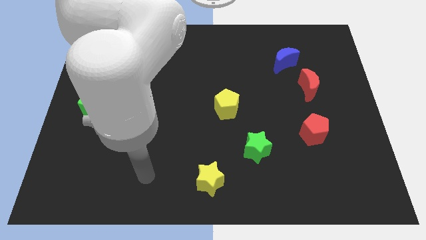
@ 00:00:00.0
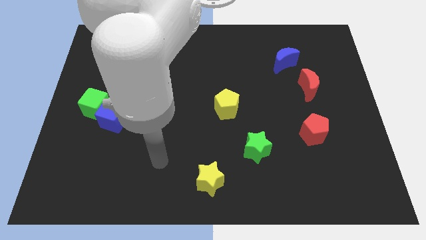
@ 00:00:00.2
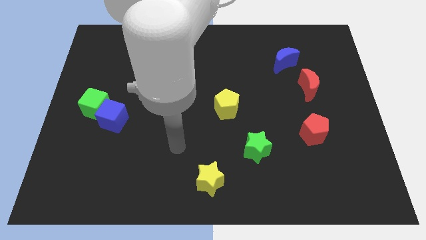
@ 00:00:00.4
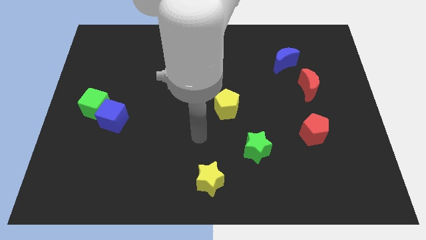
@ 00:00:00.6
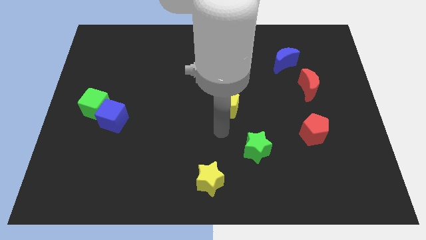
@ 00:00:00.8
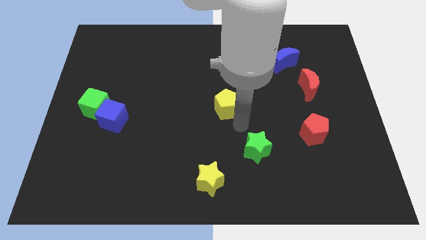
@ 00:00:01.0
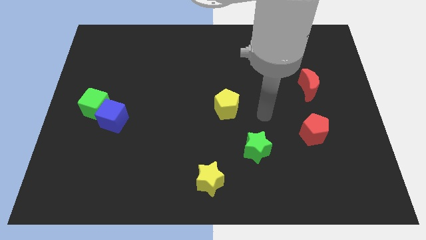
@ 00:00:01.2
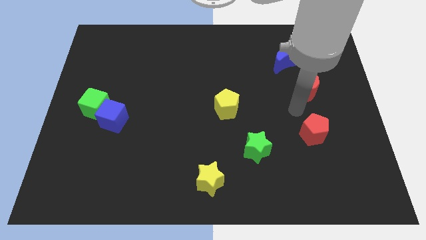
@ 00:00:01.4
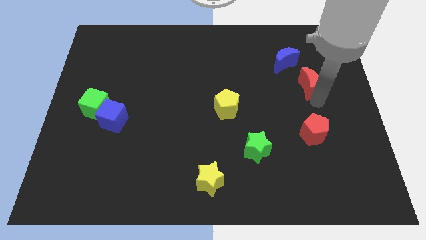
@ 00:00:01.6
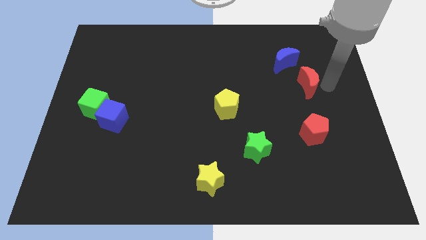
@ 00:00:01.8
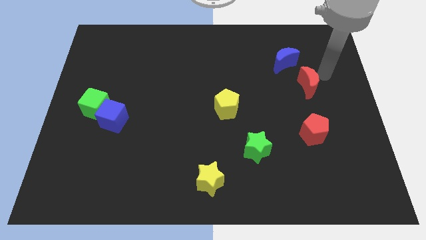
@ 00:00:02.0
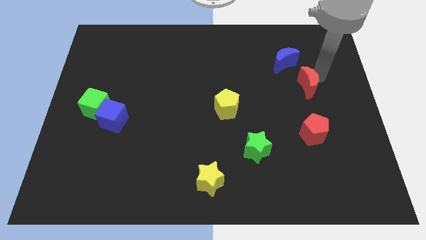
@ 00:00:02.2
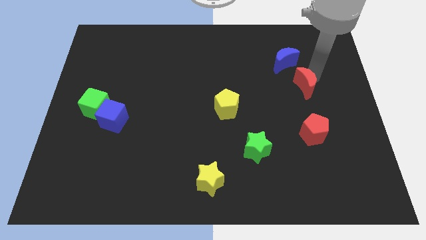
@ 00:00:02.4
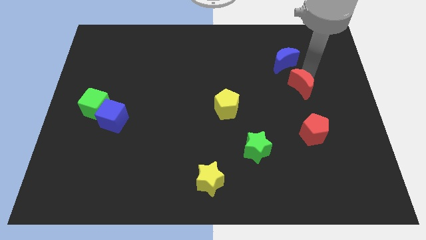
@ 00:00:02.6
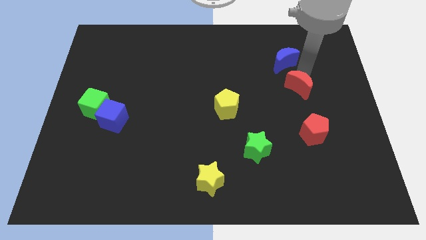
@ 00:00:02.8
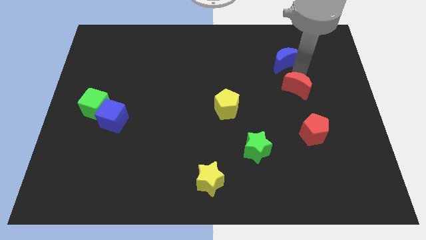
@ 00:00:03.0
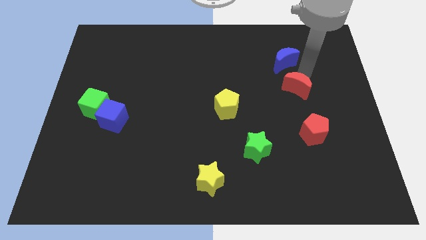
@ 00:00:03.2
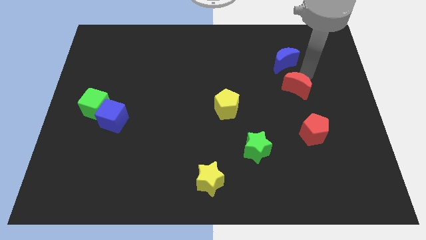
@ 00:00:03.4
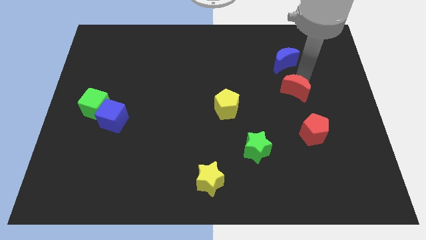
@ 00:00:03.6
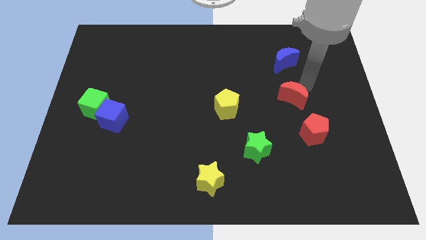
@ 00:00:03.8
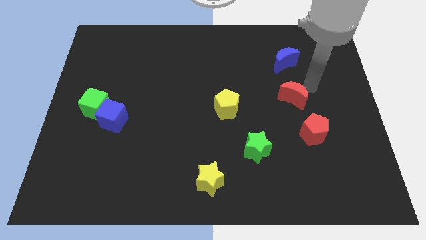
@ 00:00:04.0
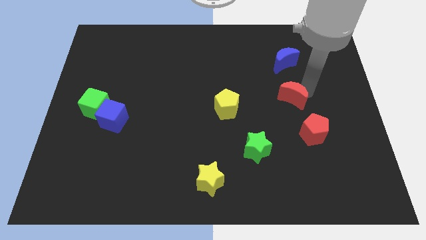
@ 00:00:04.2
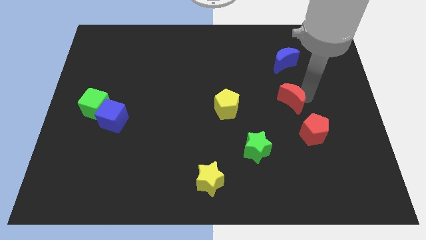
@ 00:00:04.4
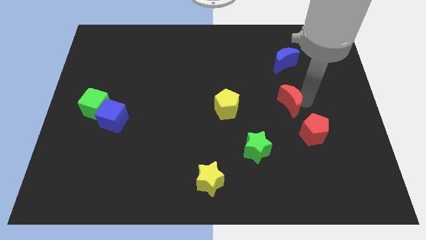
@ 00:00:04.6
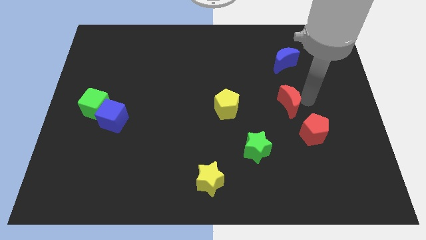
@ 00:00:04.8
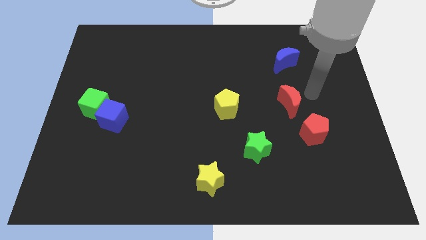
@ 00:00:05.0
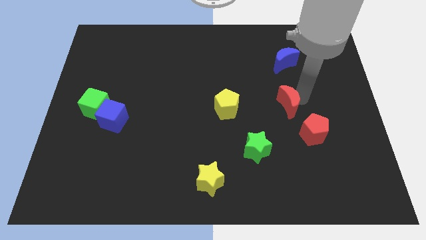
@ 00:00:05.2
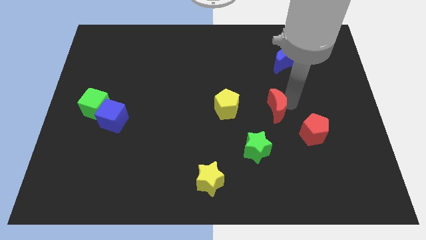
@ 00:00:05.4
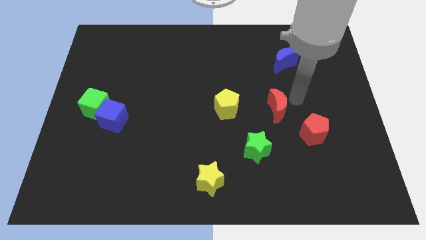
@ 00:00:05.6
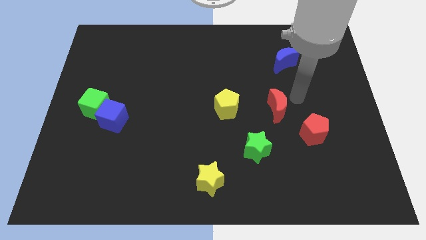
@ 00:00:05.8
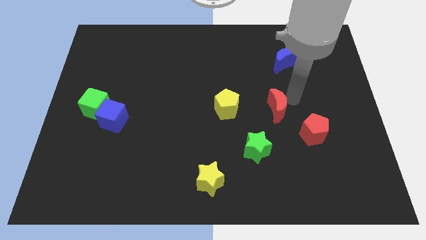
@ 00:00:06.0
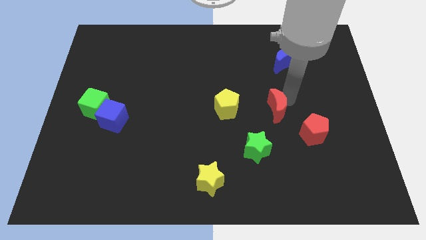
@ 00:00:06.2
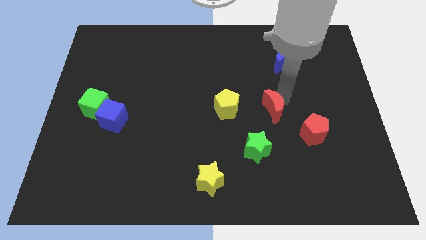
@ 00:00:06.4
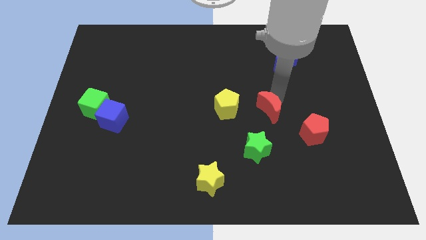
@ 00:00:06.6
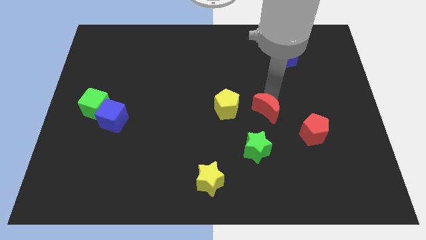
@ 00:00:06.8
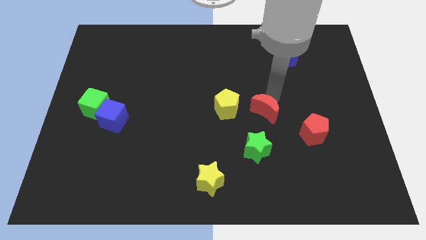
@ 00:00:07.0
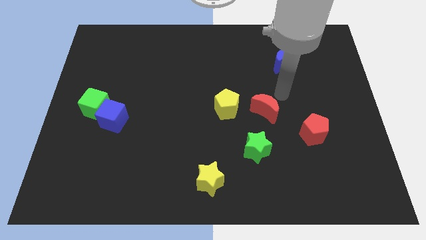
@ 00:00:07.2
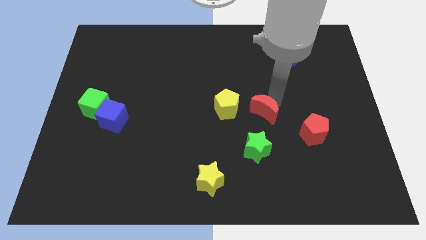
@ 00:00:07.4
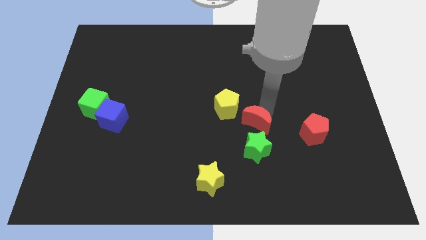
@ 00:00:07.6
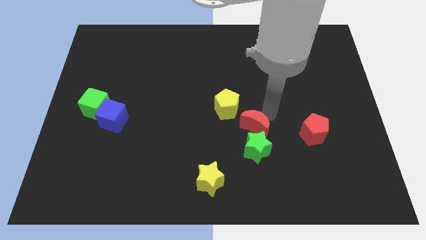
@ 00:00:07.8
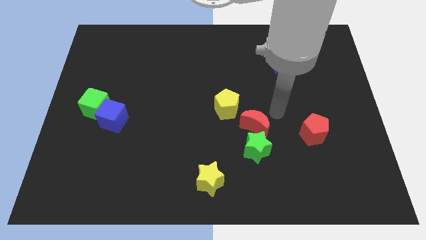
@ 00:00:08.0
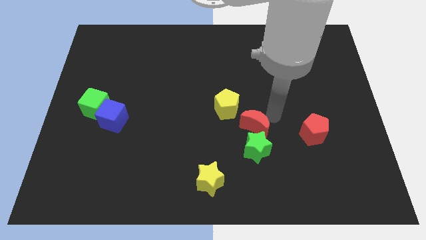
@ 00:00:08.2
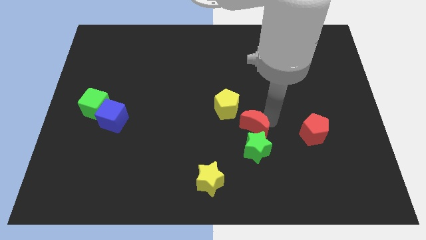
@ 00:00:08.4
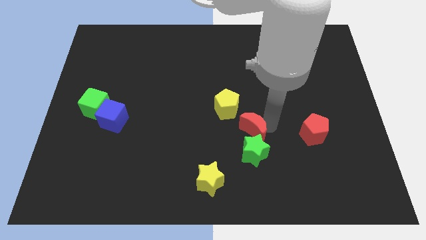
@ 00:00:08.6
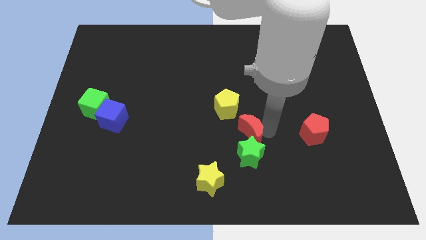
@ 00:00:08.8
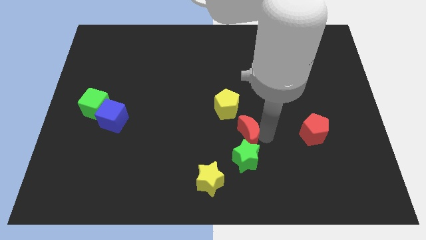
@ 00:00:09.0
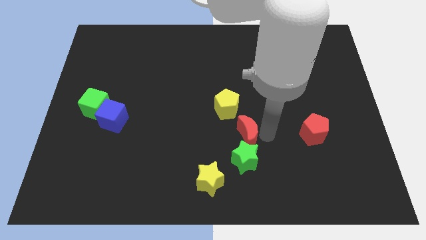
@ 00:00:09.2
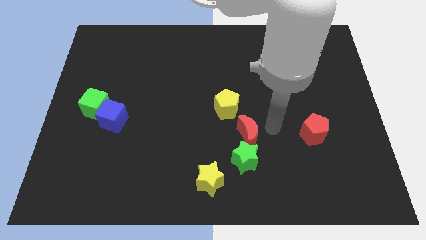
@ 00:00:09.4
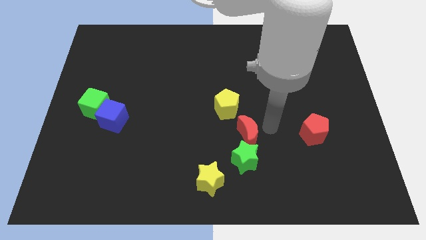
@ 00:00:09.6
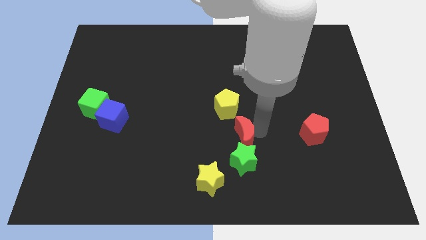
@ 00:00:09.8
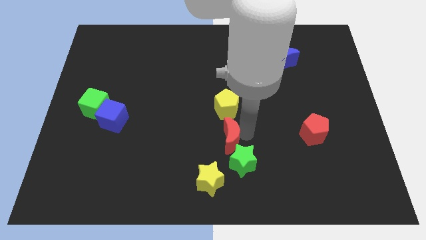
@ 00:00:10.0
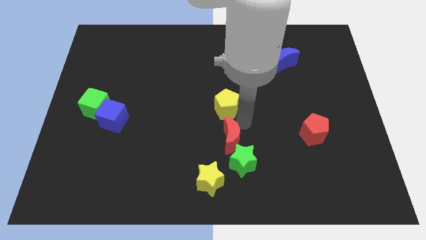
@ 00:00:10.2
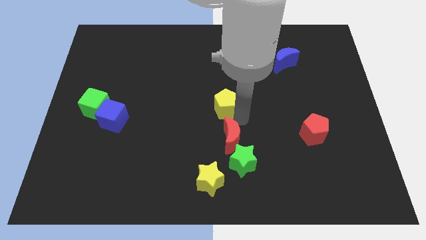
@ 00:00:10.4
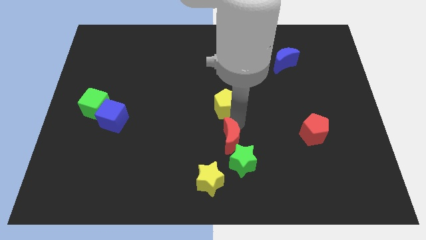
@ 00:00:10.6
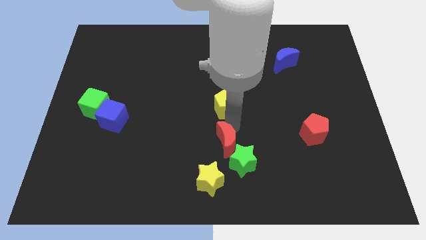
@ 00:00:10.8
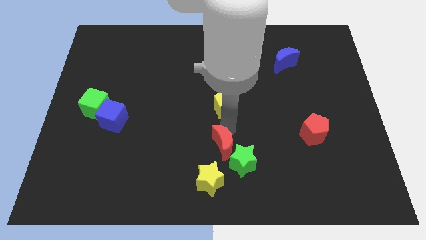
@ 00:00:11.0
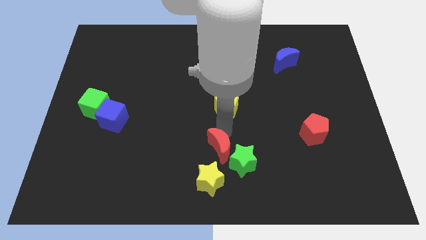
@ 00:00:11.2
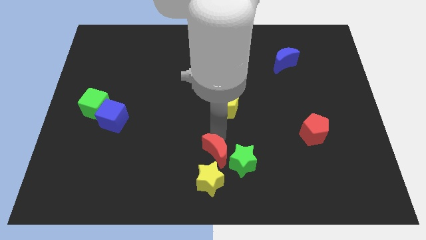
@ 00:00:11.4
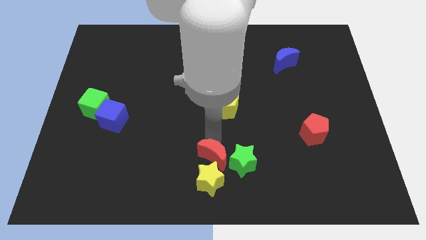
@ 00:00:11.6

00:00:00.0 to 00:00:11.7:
slide the red moon to the yellow star

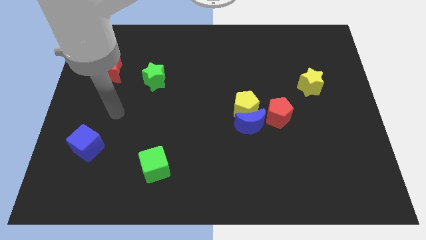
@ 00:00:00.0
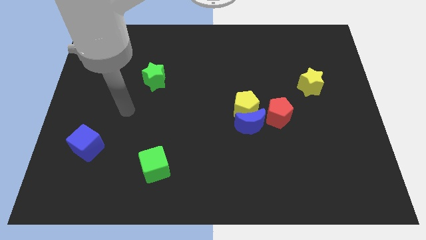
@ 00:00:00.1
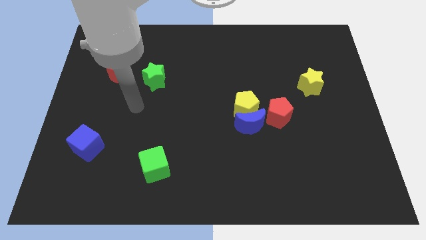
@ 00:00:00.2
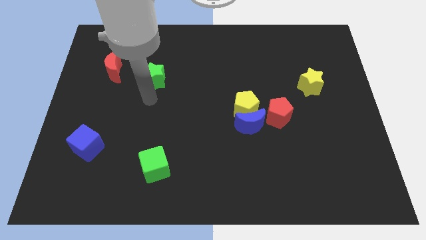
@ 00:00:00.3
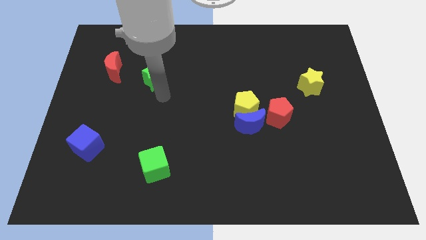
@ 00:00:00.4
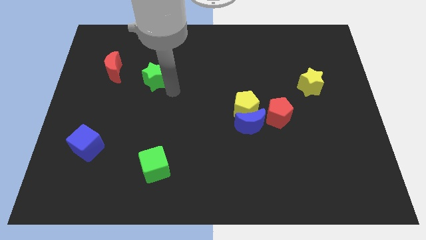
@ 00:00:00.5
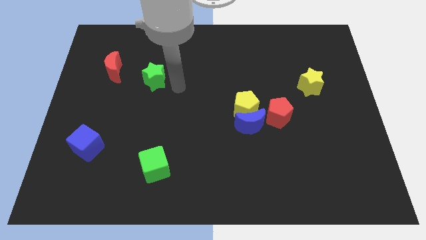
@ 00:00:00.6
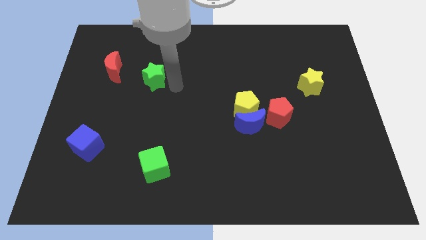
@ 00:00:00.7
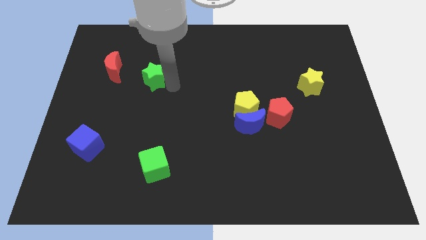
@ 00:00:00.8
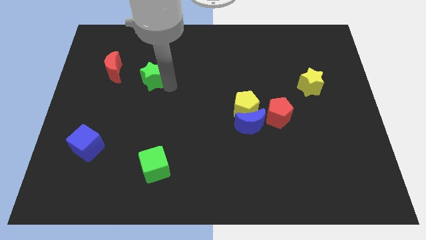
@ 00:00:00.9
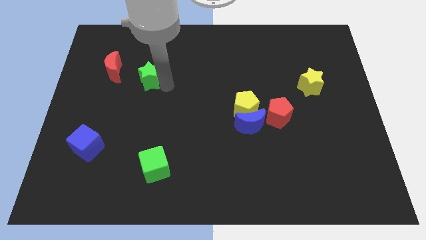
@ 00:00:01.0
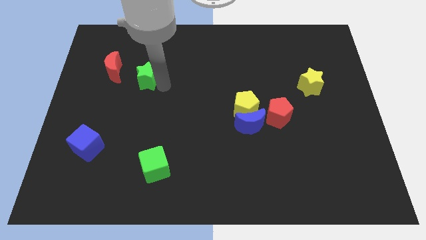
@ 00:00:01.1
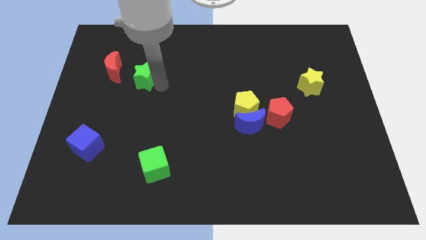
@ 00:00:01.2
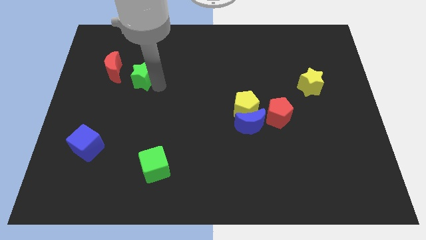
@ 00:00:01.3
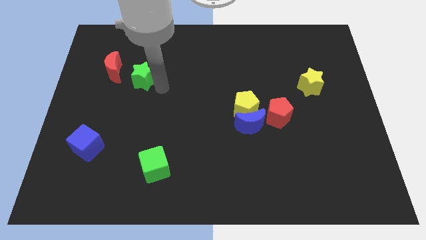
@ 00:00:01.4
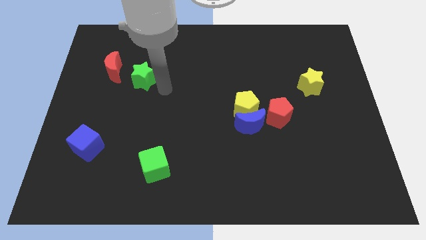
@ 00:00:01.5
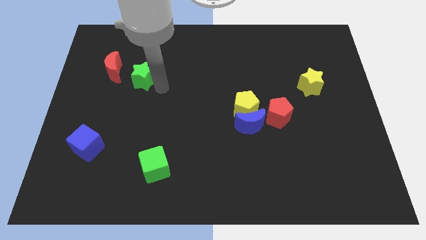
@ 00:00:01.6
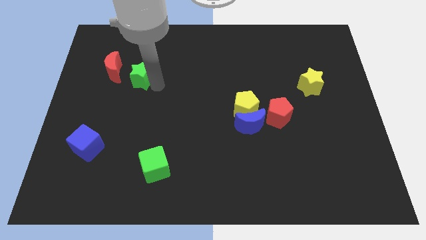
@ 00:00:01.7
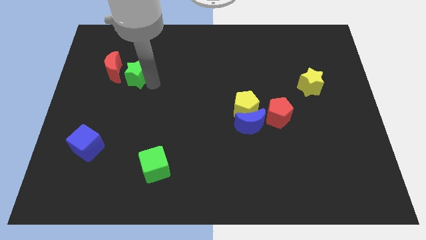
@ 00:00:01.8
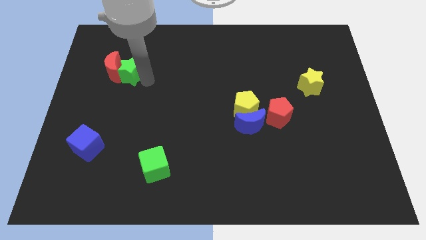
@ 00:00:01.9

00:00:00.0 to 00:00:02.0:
push the green star next to the red moon
